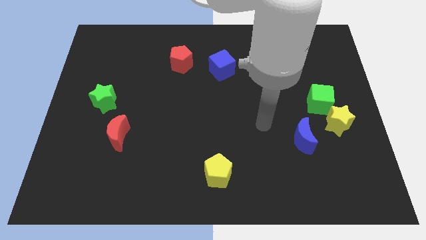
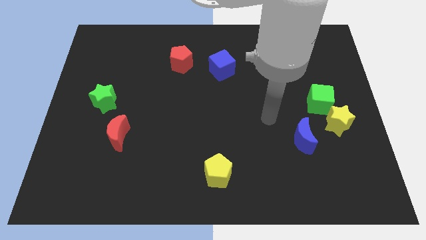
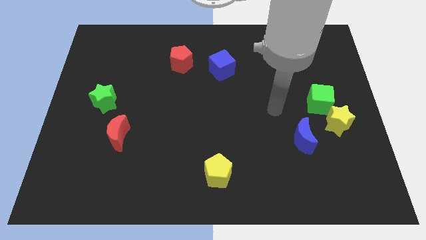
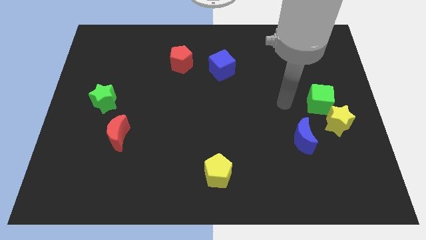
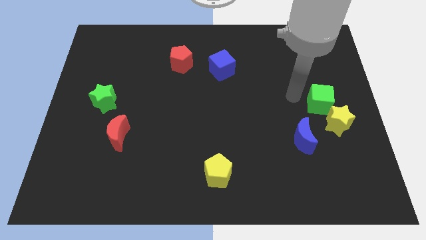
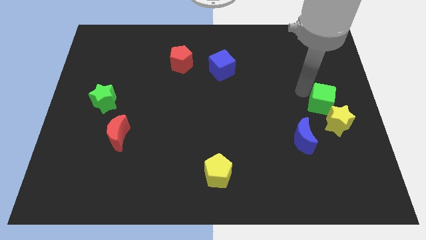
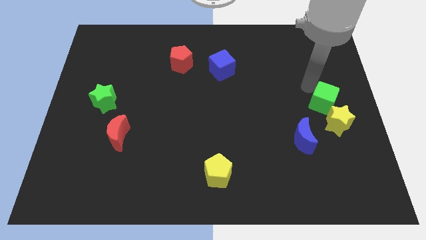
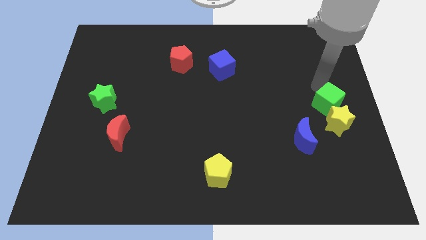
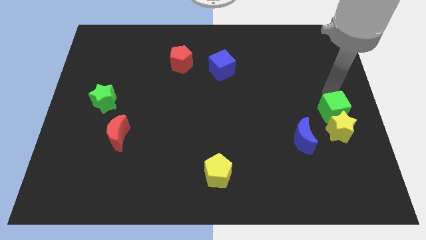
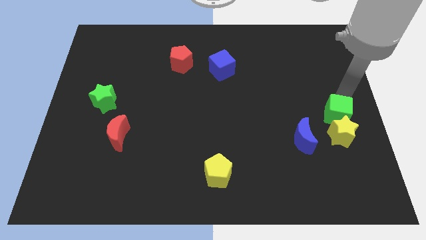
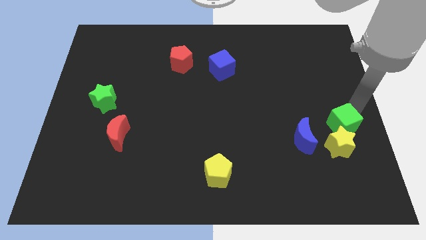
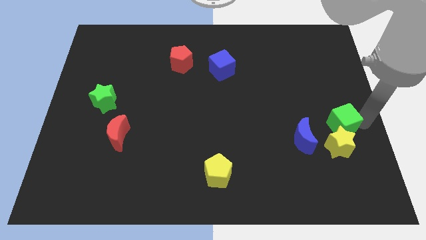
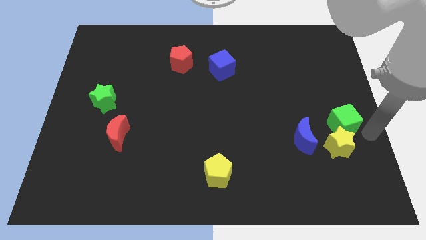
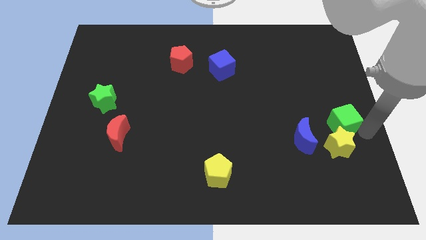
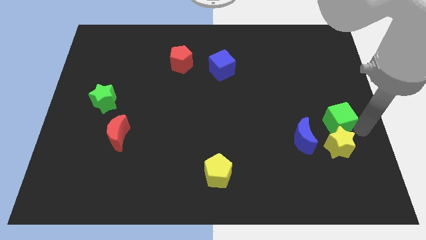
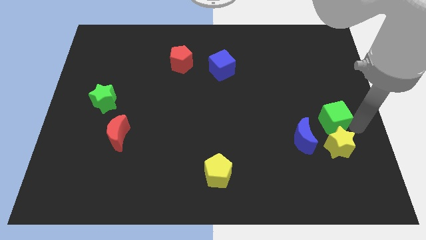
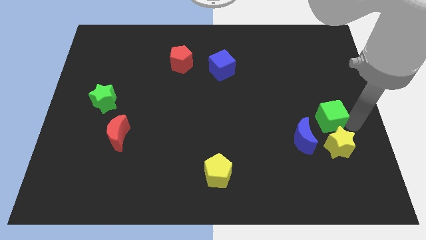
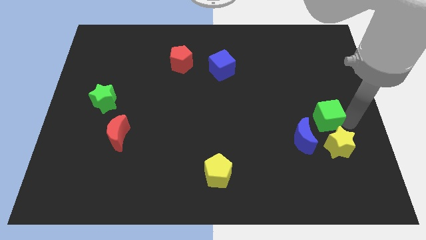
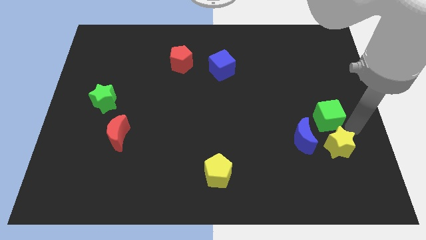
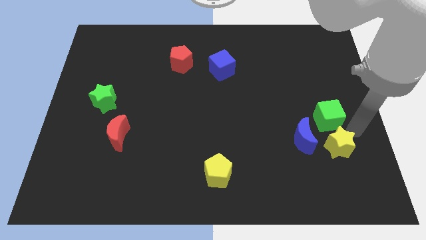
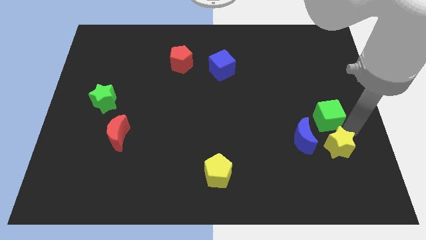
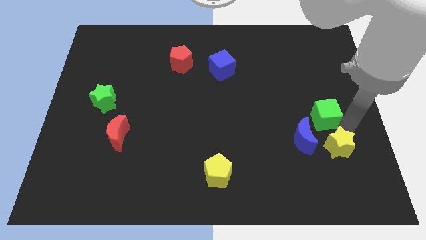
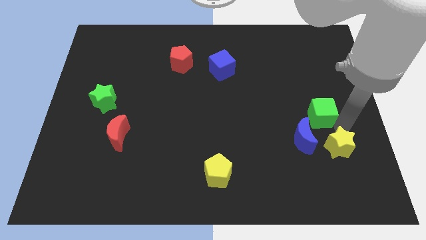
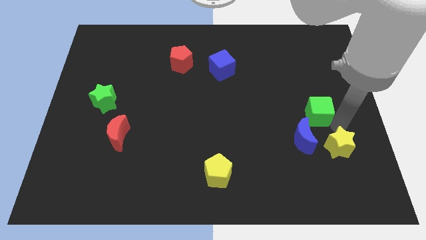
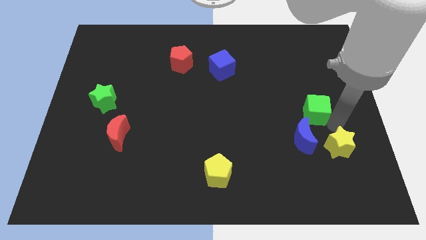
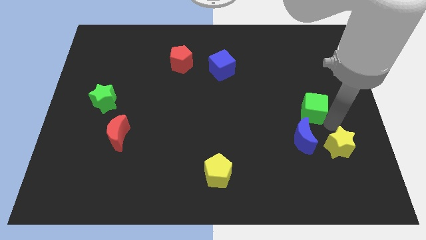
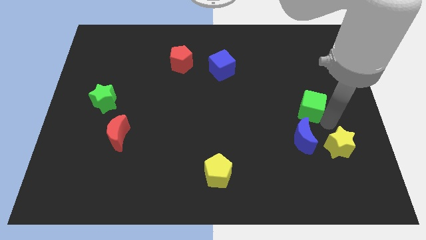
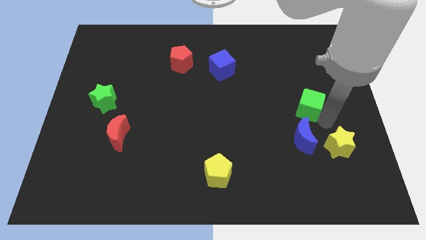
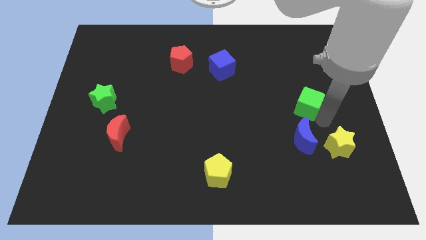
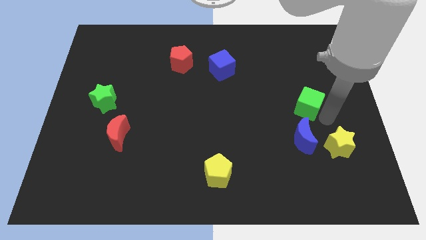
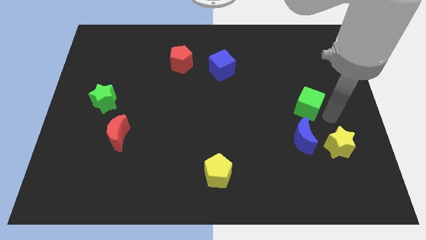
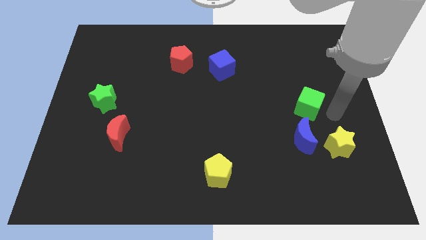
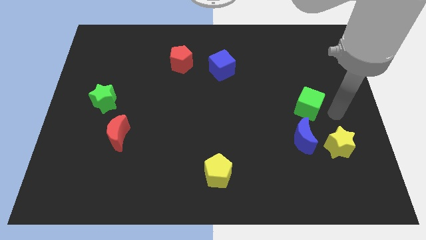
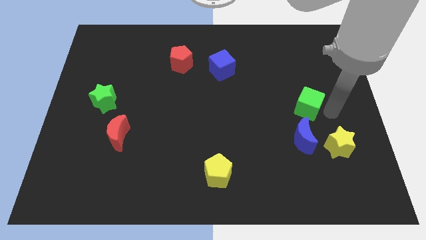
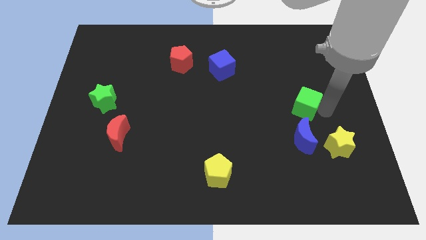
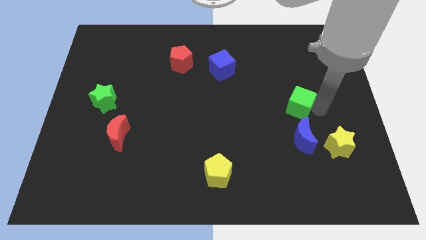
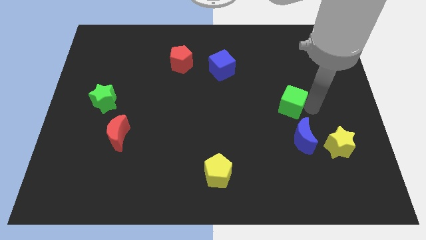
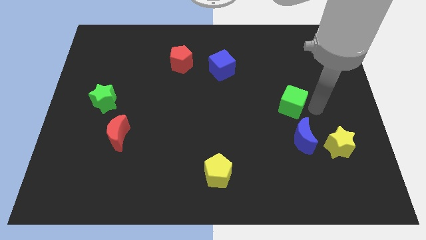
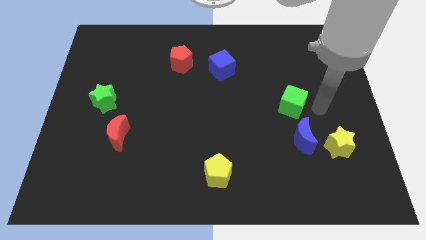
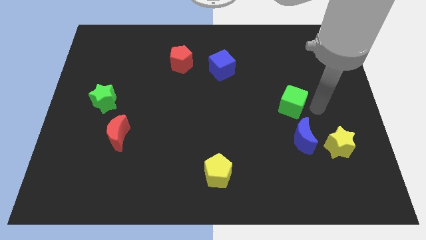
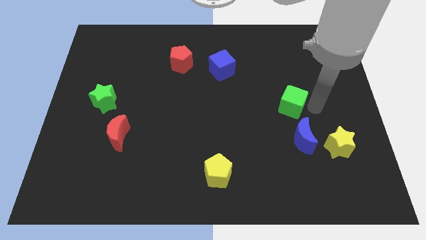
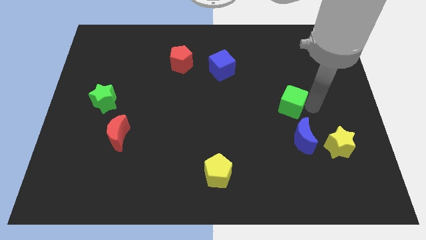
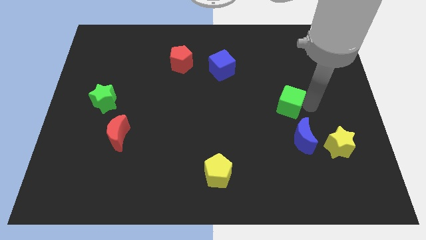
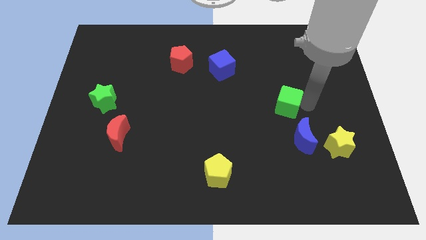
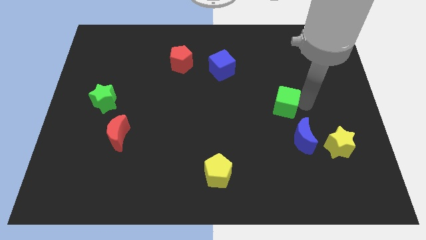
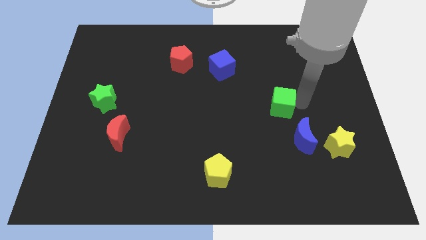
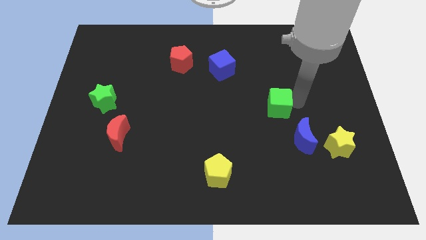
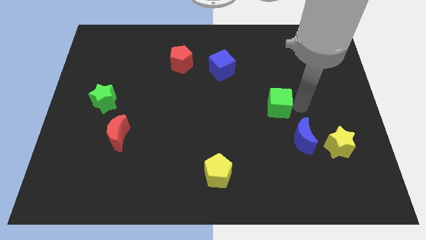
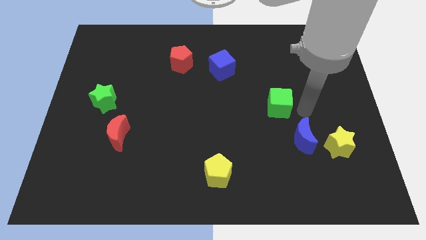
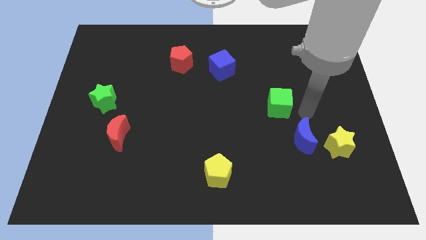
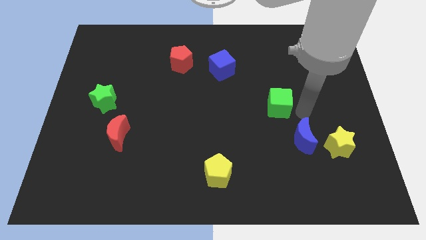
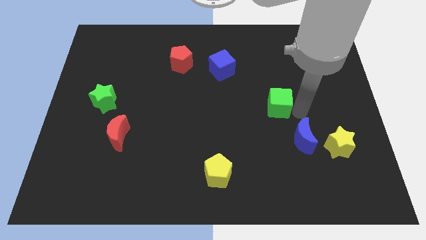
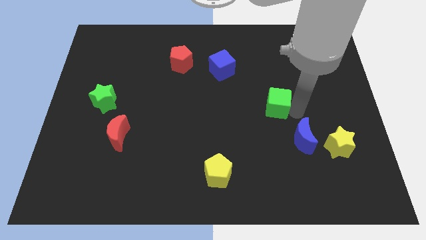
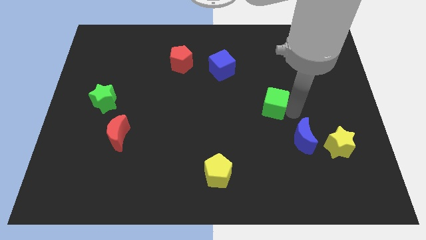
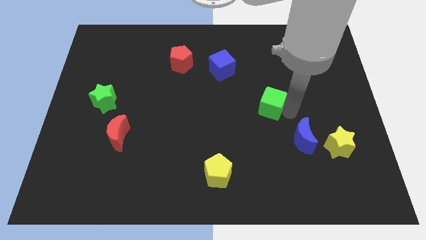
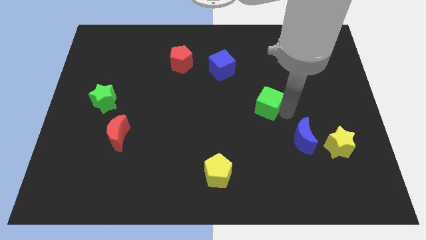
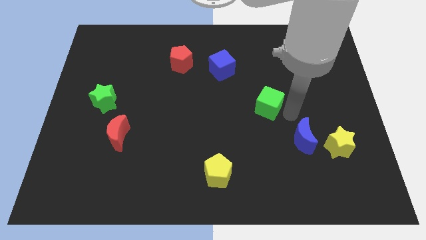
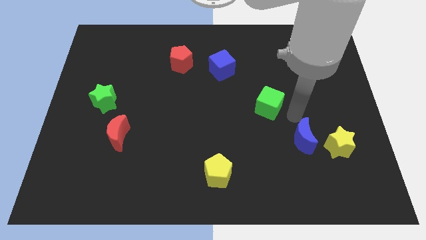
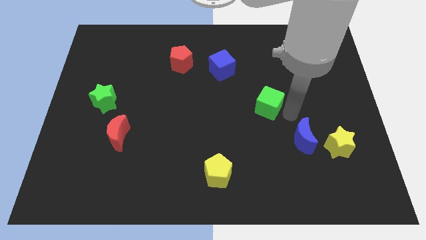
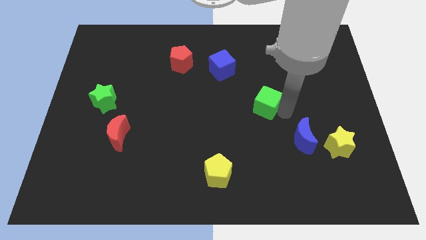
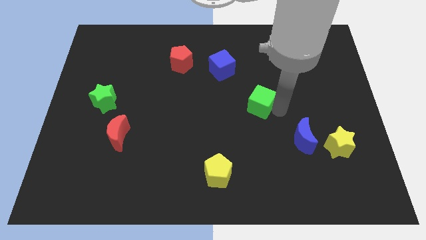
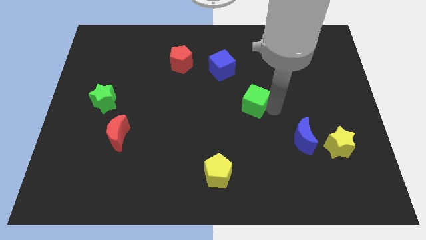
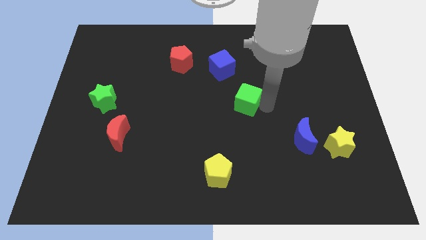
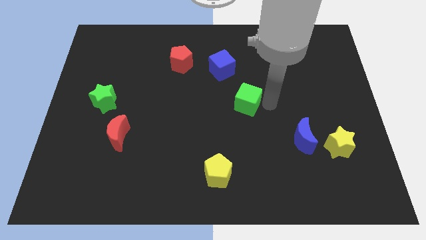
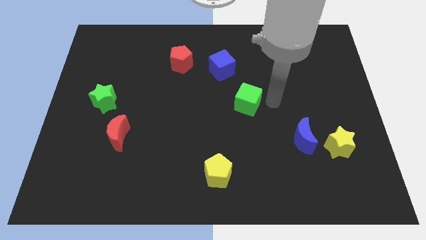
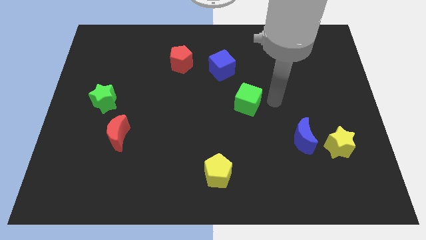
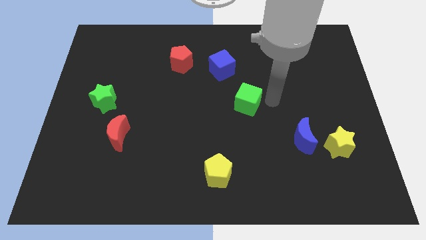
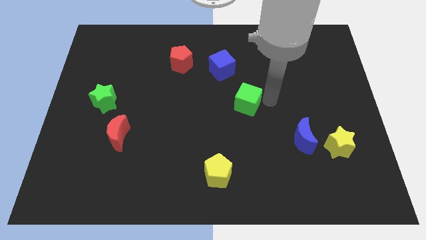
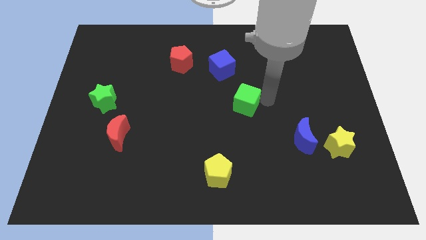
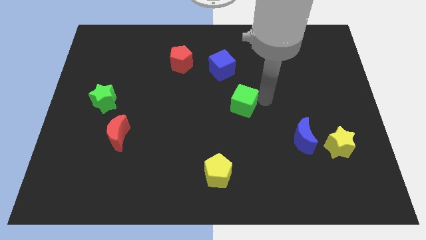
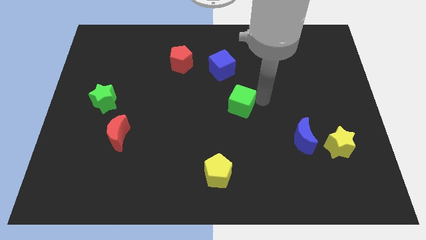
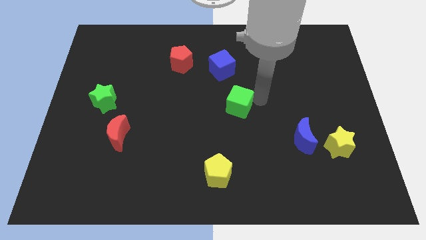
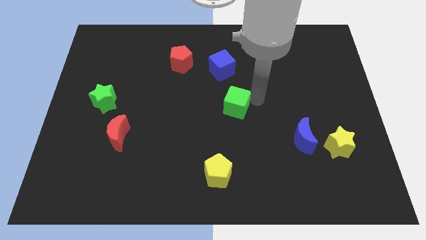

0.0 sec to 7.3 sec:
move the green cube left

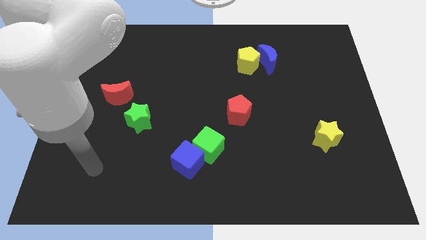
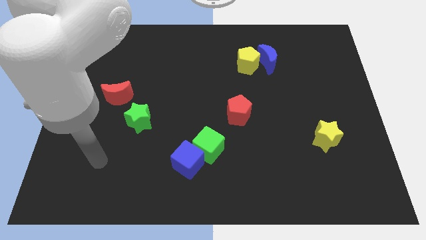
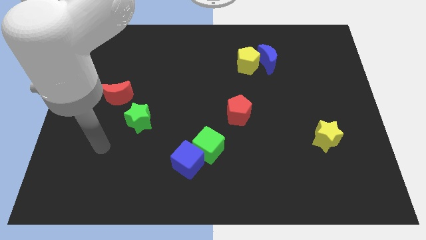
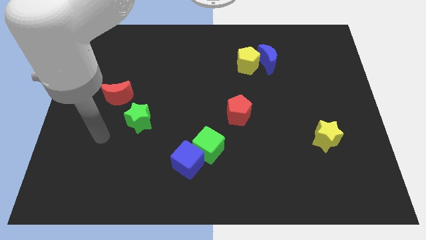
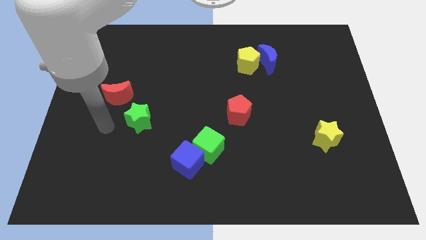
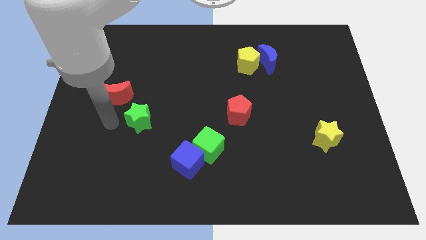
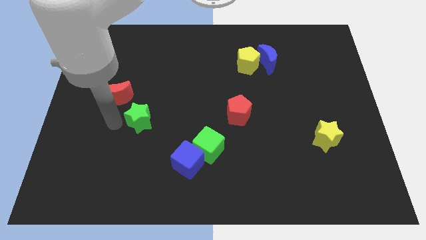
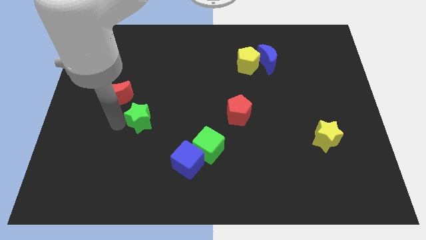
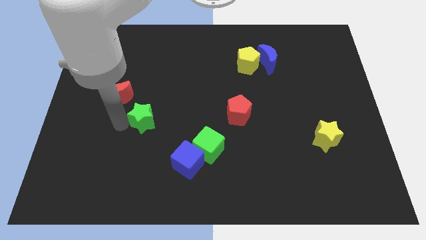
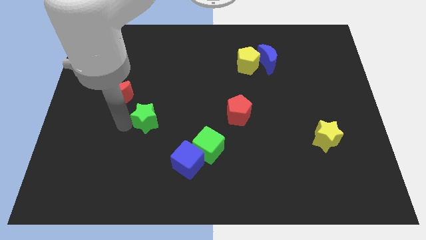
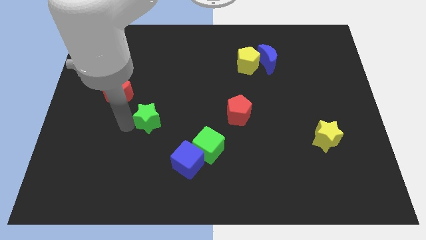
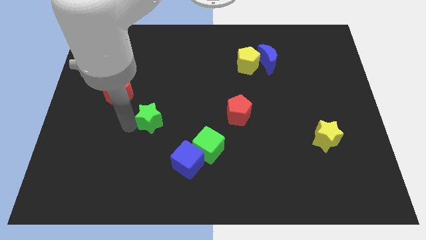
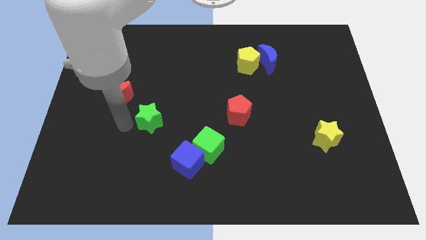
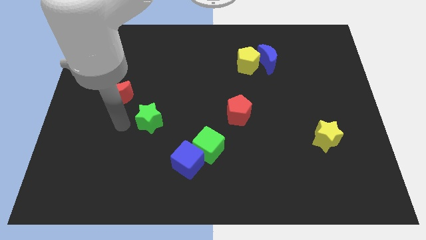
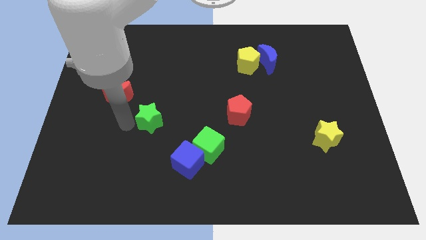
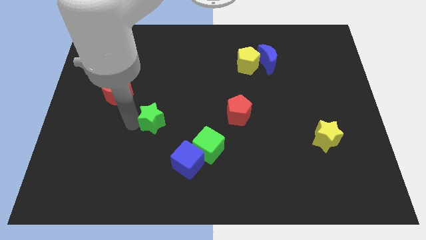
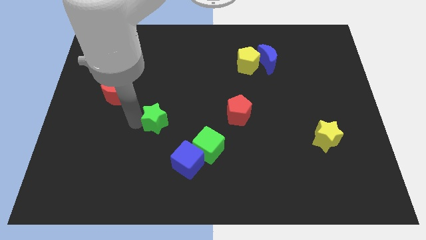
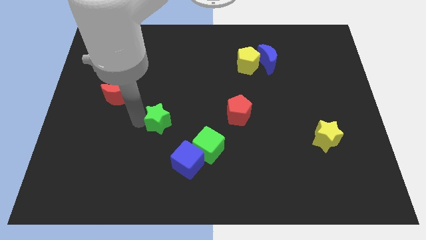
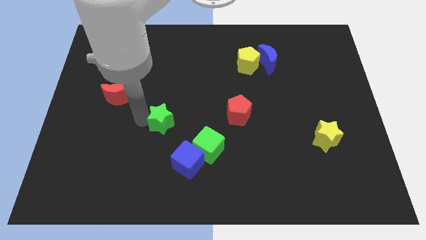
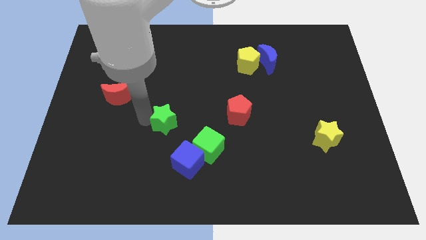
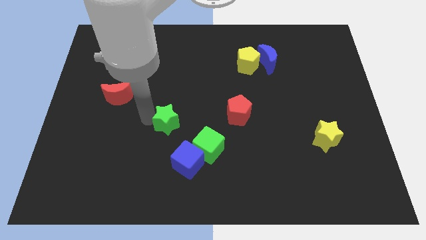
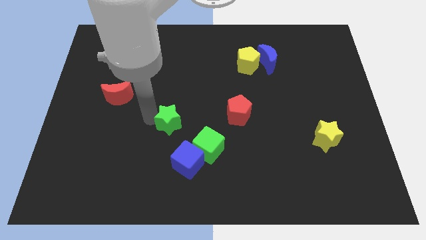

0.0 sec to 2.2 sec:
slightly move the green star to the right
